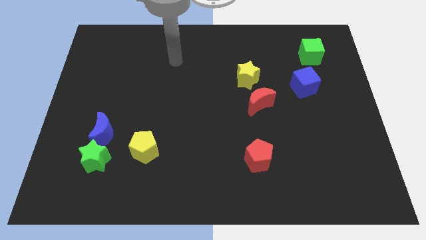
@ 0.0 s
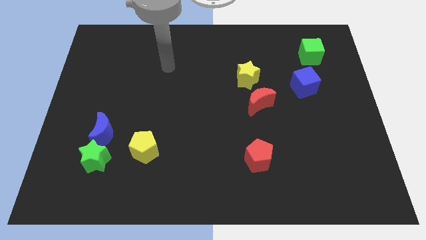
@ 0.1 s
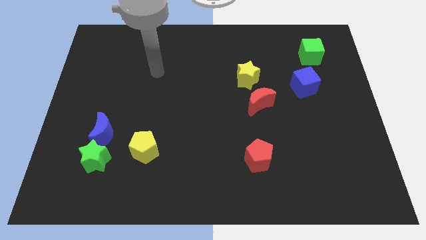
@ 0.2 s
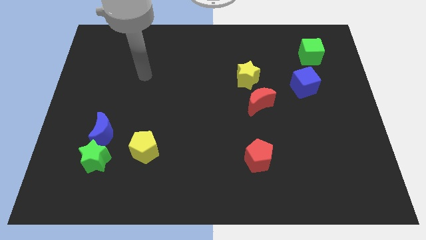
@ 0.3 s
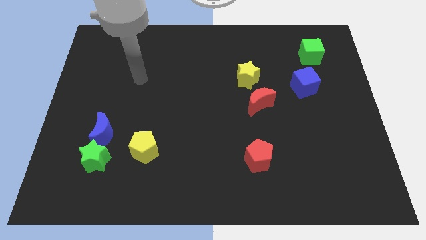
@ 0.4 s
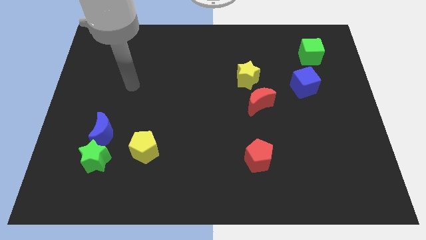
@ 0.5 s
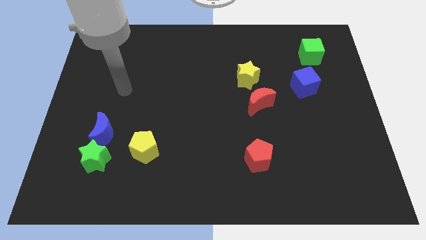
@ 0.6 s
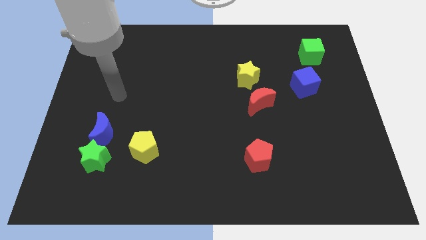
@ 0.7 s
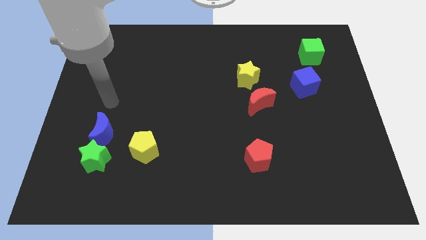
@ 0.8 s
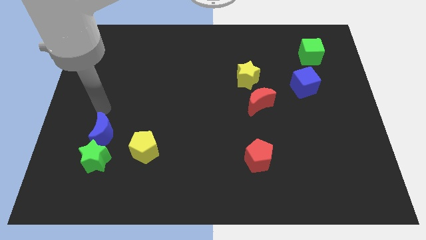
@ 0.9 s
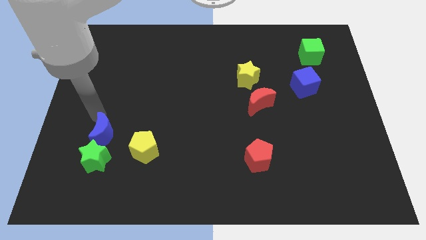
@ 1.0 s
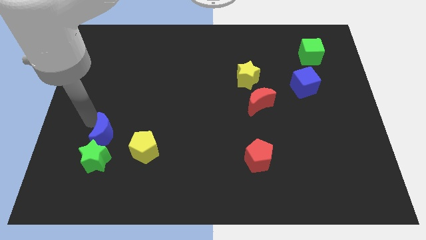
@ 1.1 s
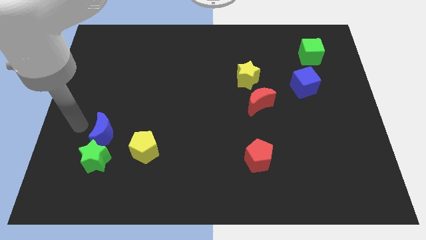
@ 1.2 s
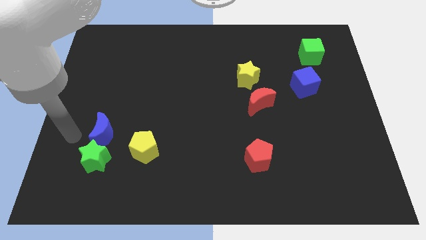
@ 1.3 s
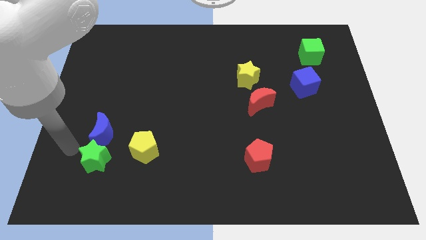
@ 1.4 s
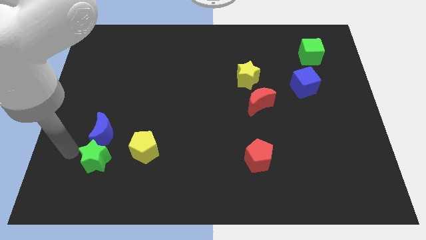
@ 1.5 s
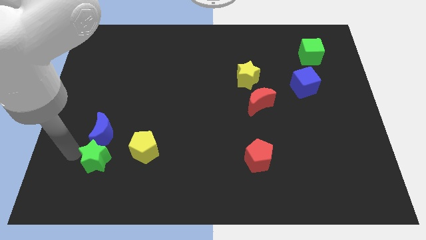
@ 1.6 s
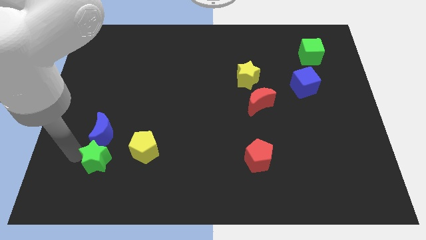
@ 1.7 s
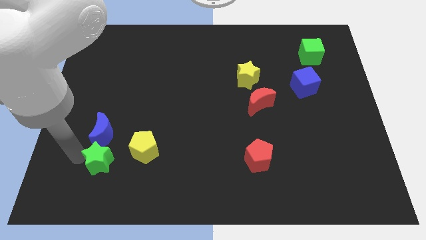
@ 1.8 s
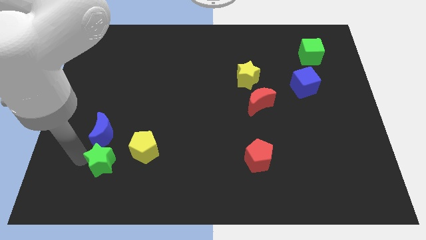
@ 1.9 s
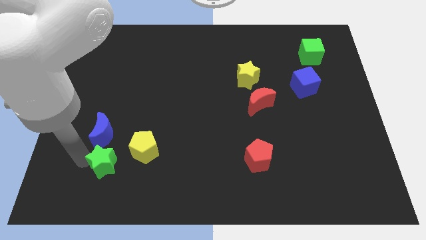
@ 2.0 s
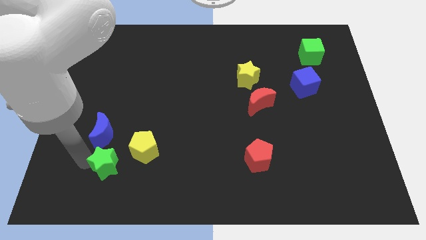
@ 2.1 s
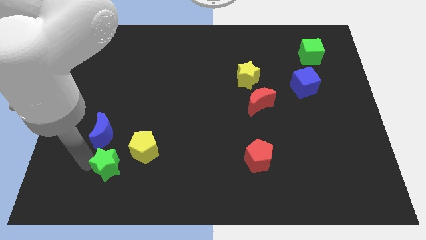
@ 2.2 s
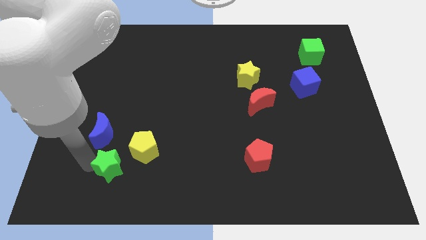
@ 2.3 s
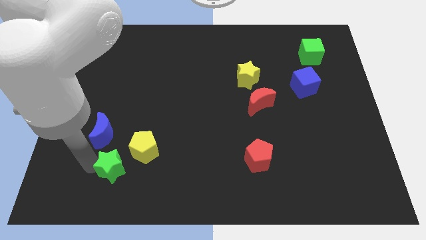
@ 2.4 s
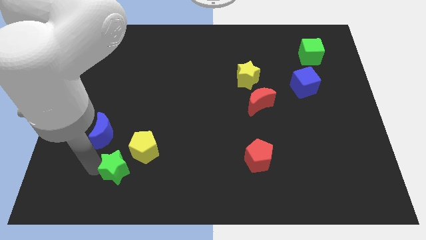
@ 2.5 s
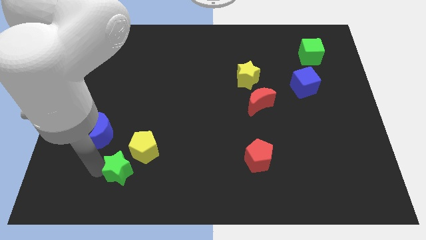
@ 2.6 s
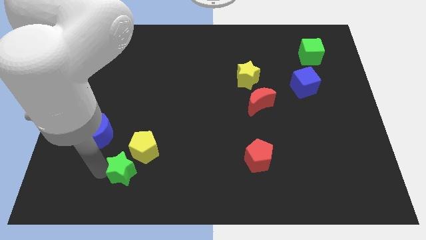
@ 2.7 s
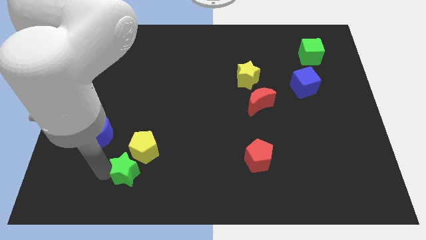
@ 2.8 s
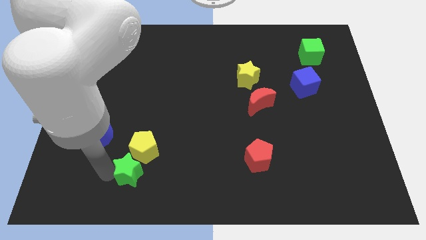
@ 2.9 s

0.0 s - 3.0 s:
move the green star a little bit right

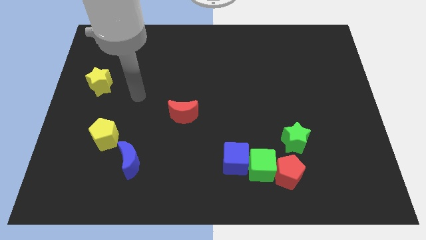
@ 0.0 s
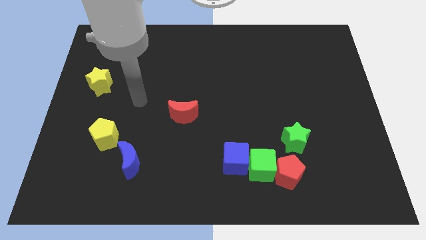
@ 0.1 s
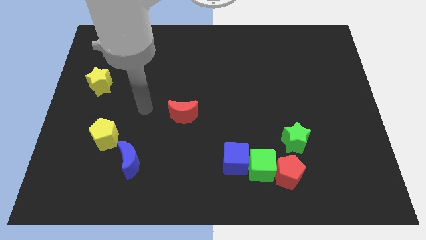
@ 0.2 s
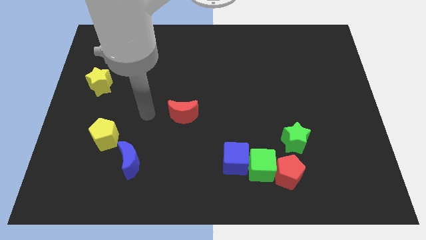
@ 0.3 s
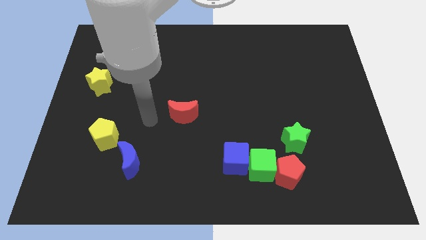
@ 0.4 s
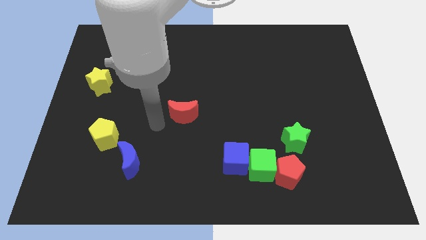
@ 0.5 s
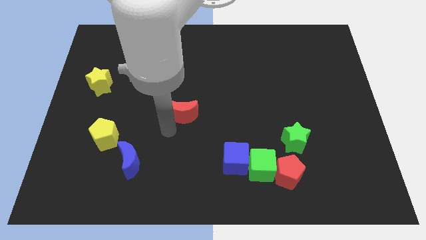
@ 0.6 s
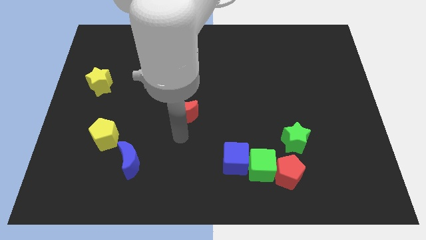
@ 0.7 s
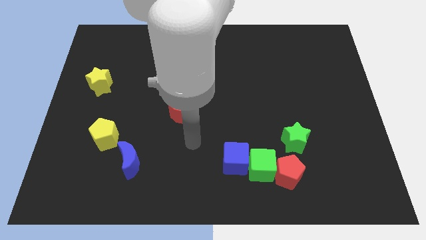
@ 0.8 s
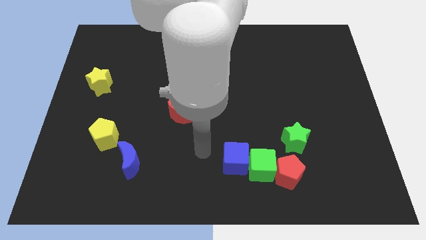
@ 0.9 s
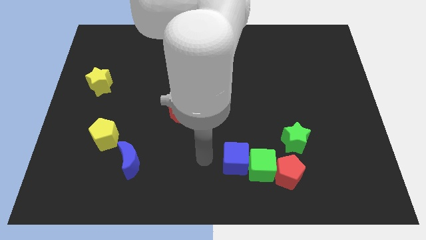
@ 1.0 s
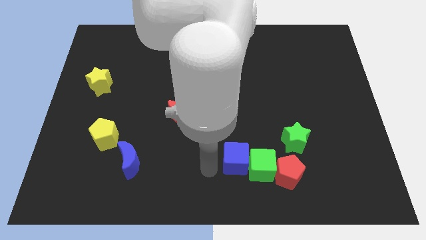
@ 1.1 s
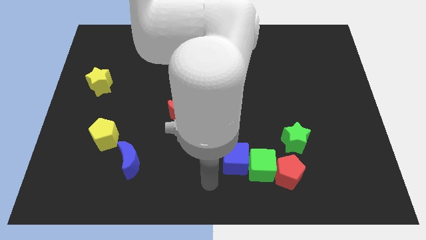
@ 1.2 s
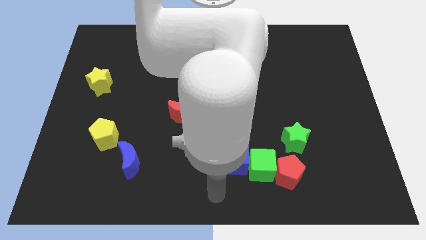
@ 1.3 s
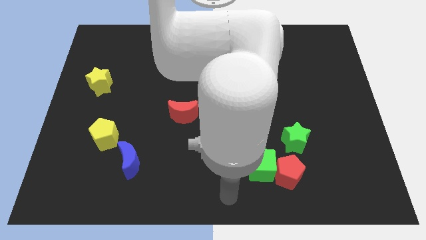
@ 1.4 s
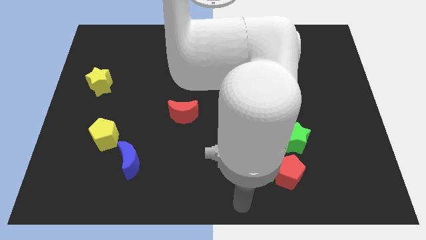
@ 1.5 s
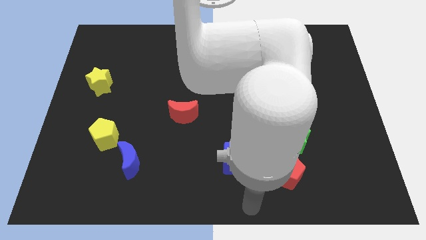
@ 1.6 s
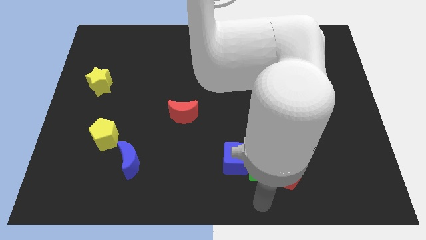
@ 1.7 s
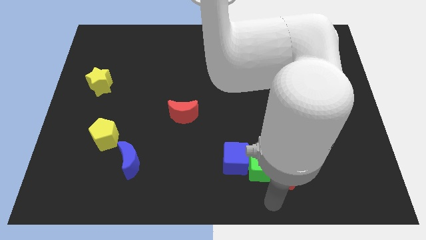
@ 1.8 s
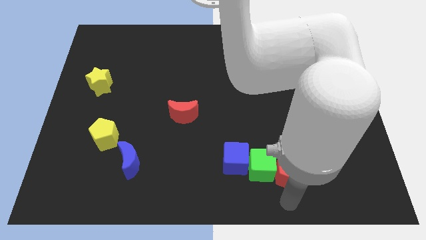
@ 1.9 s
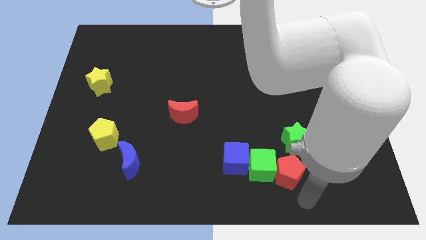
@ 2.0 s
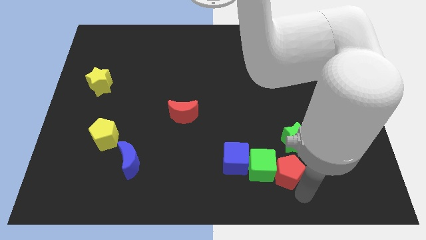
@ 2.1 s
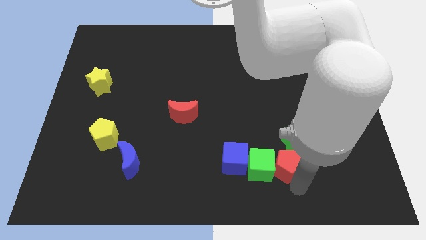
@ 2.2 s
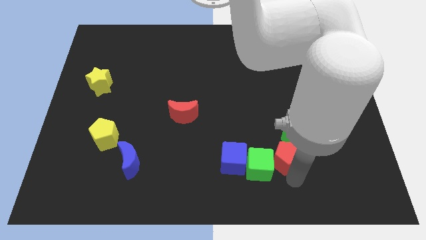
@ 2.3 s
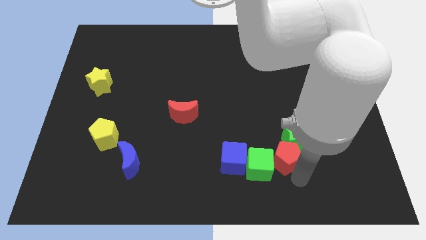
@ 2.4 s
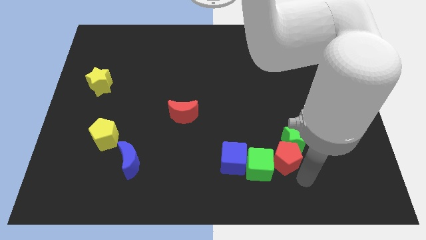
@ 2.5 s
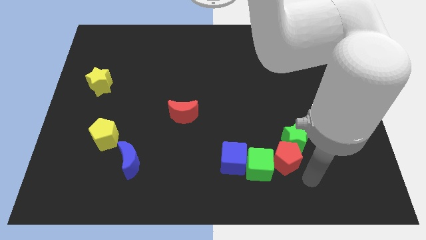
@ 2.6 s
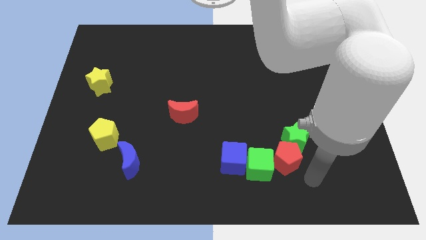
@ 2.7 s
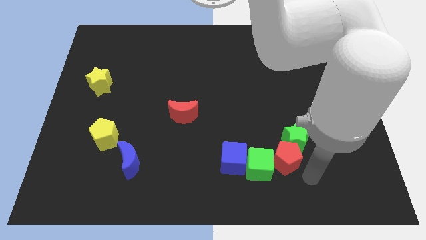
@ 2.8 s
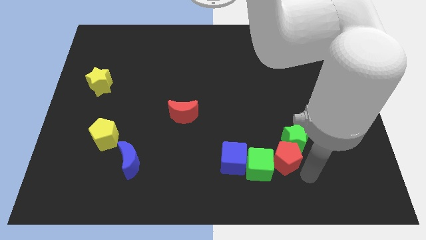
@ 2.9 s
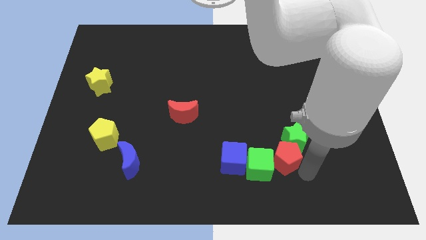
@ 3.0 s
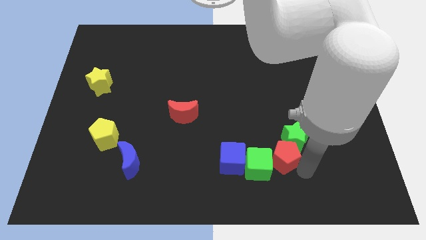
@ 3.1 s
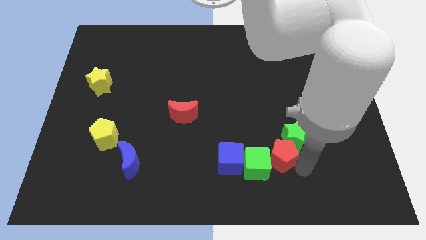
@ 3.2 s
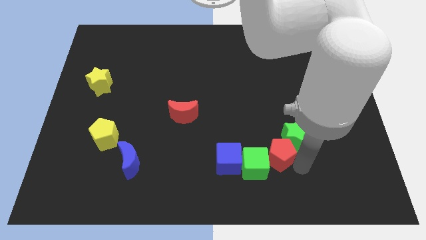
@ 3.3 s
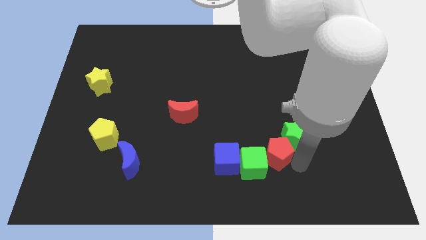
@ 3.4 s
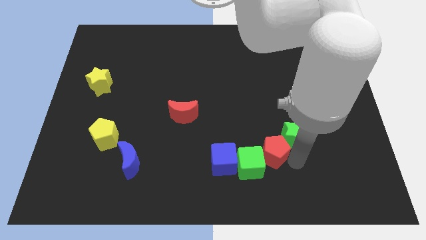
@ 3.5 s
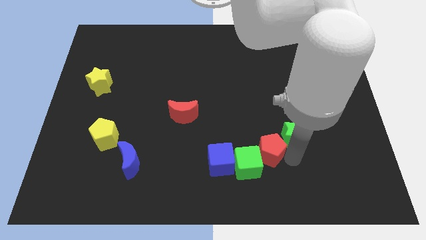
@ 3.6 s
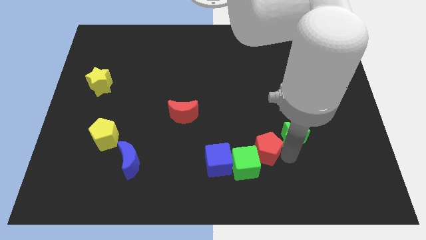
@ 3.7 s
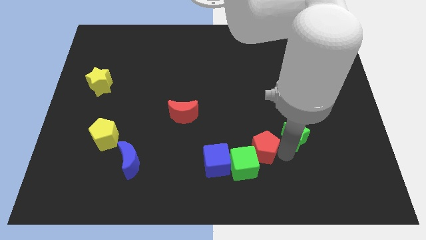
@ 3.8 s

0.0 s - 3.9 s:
move the red pentagon a bit diagonally upwards and left

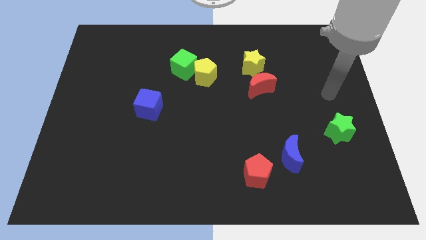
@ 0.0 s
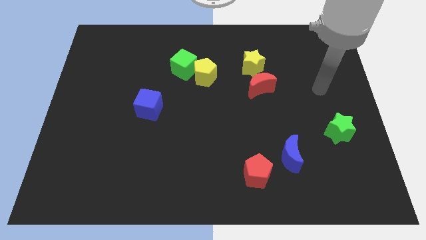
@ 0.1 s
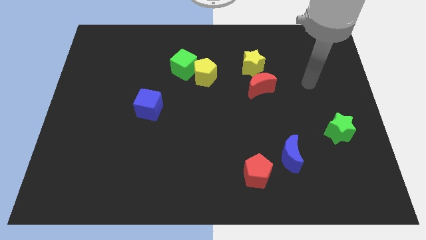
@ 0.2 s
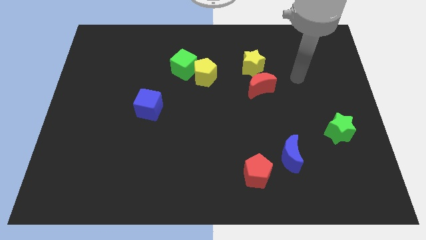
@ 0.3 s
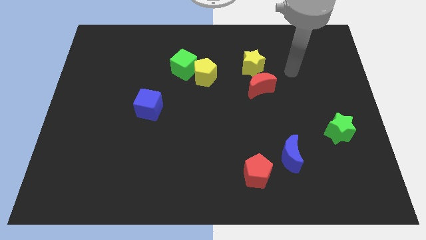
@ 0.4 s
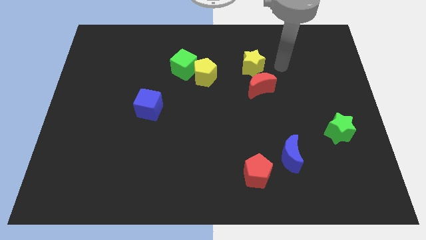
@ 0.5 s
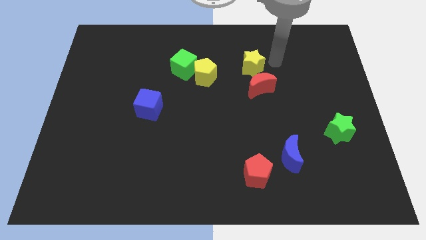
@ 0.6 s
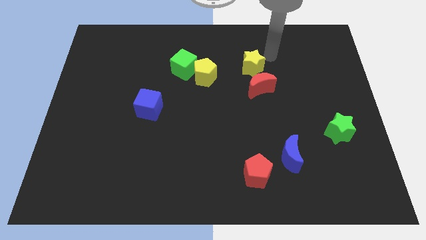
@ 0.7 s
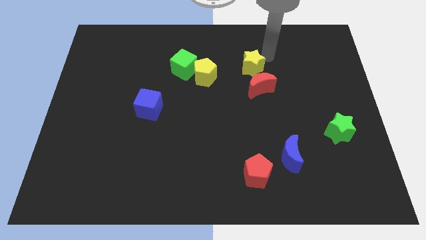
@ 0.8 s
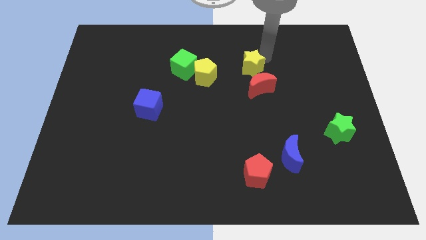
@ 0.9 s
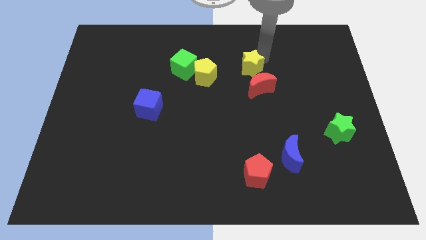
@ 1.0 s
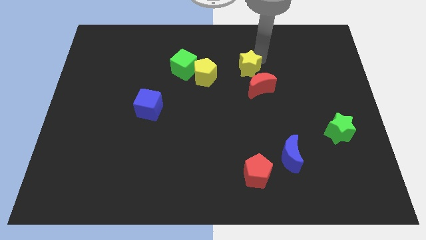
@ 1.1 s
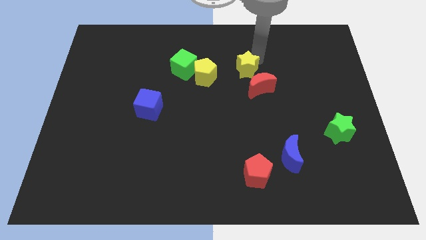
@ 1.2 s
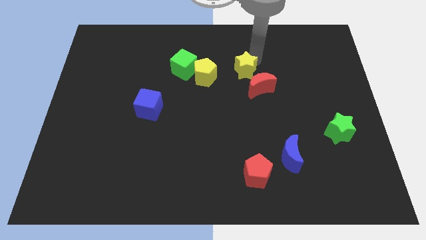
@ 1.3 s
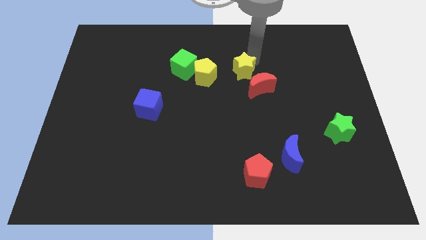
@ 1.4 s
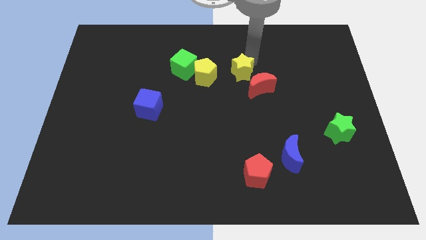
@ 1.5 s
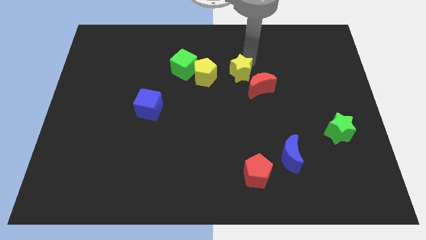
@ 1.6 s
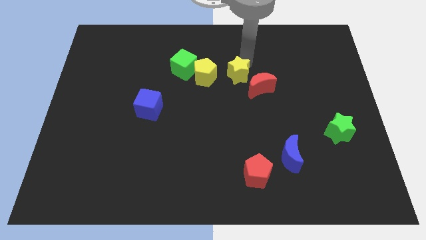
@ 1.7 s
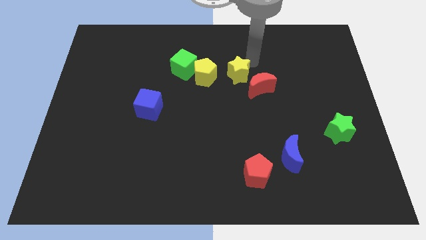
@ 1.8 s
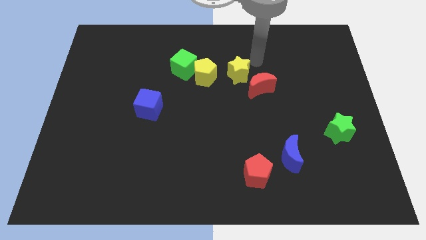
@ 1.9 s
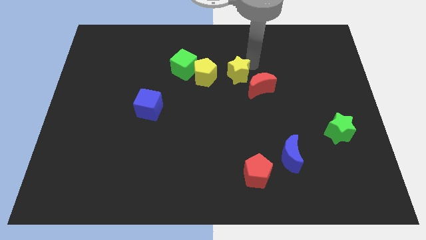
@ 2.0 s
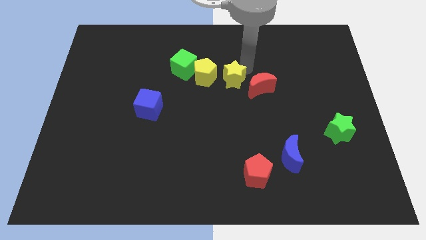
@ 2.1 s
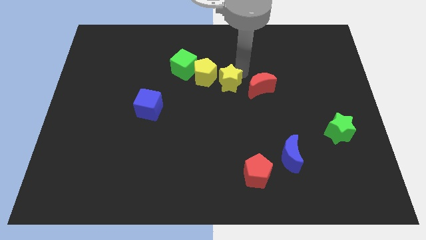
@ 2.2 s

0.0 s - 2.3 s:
push the yellow star diagonally down and left a bit
